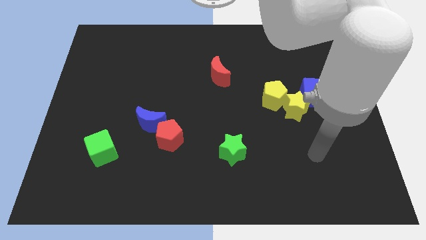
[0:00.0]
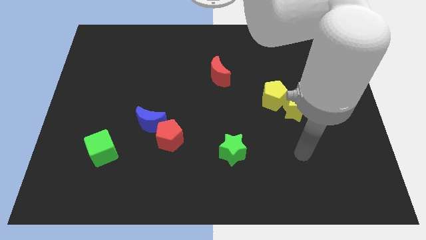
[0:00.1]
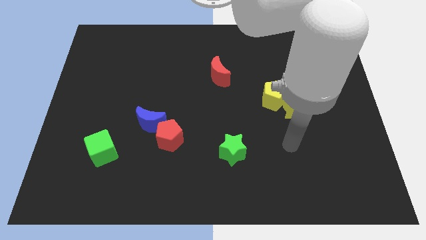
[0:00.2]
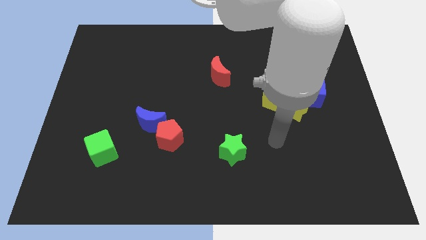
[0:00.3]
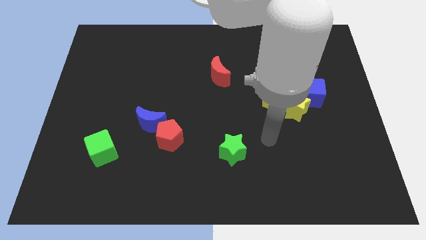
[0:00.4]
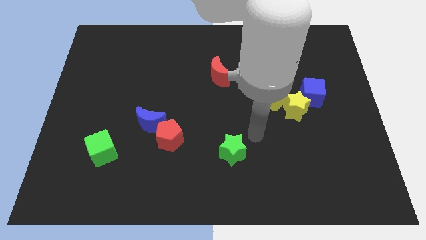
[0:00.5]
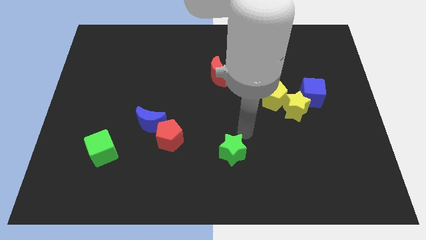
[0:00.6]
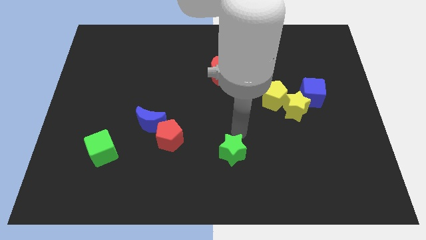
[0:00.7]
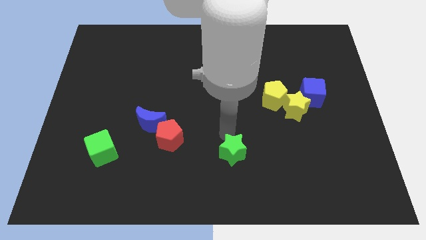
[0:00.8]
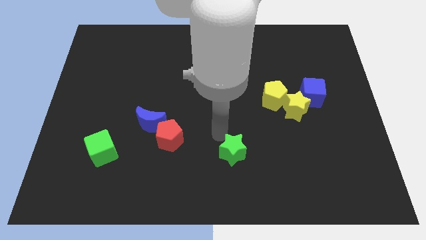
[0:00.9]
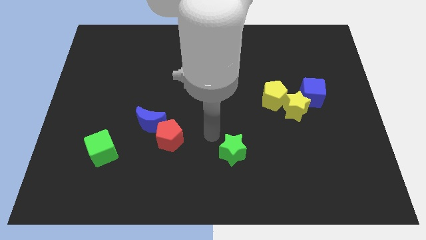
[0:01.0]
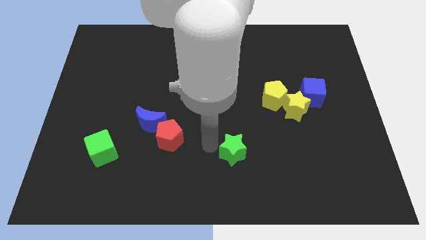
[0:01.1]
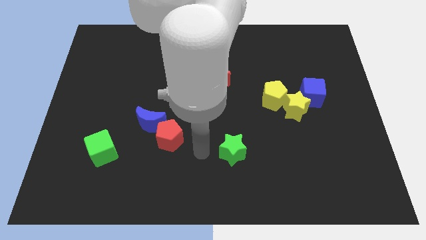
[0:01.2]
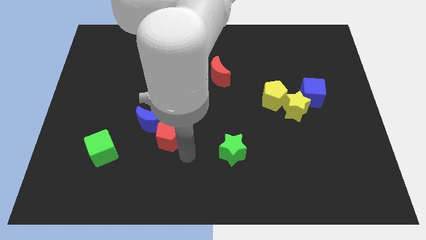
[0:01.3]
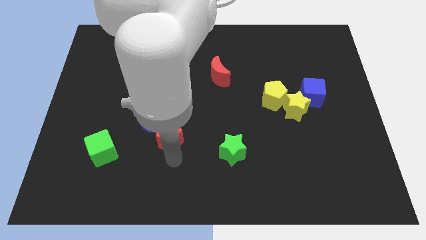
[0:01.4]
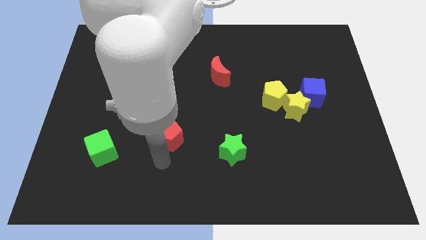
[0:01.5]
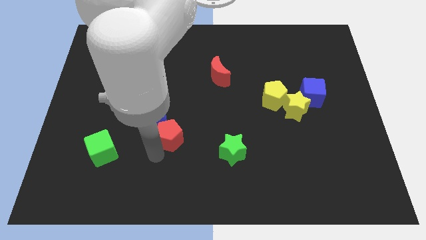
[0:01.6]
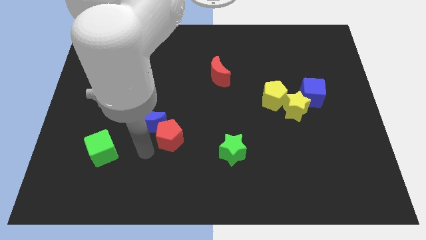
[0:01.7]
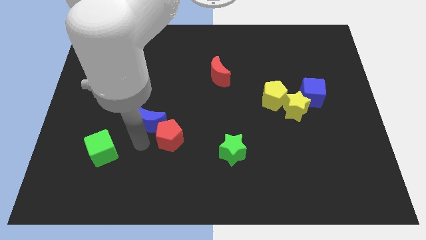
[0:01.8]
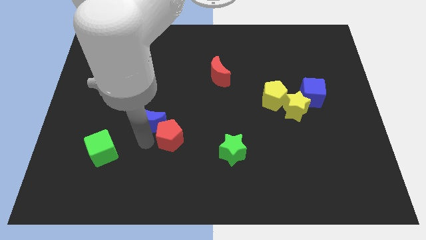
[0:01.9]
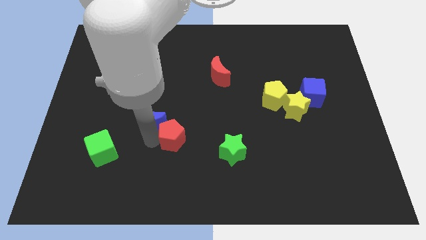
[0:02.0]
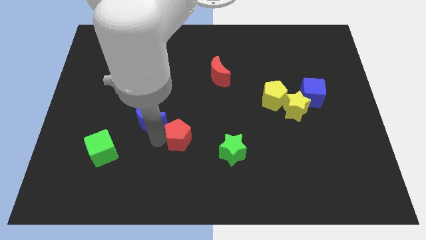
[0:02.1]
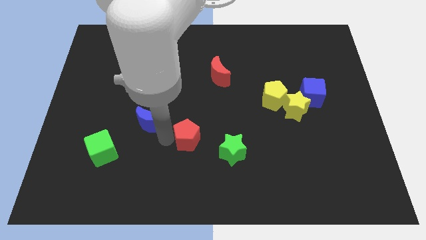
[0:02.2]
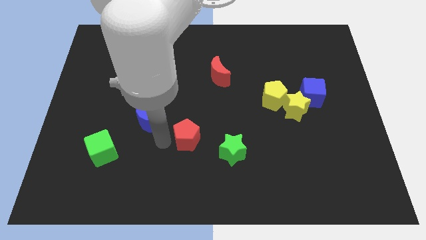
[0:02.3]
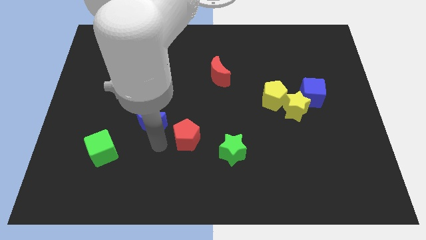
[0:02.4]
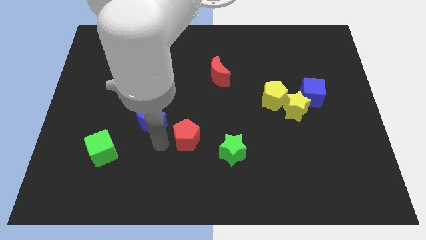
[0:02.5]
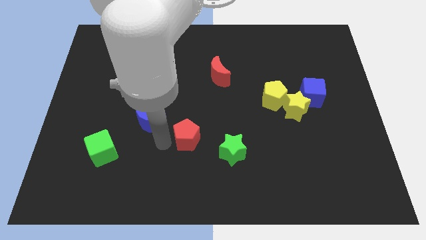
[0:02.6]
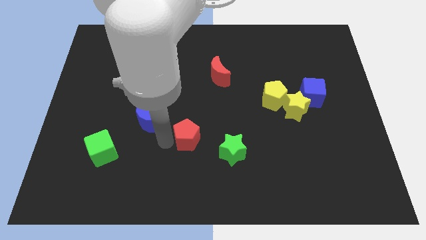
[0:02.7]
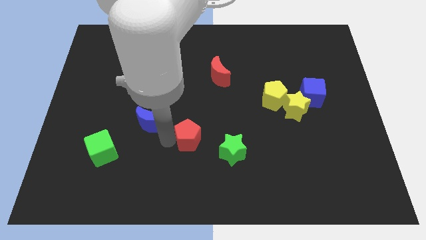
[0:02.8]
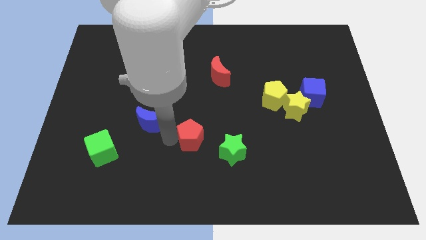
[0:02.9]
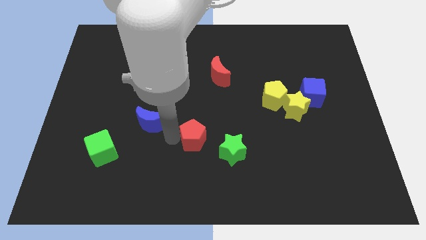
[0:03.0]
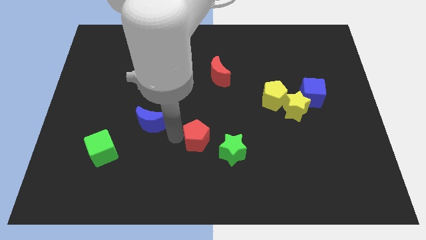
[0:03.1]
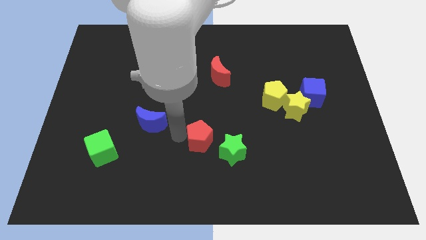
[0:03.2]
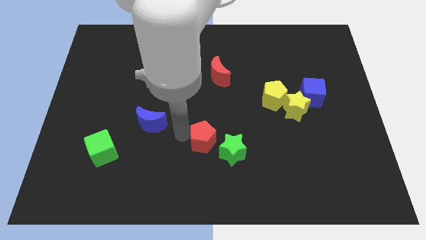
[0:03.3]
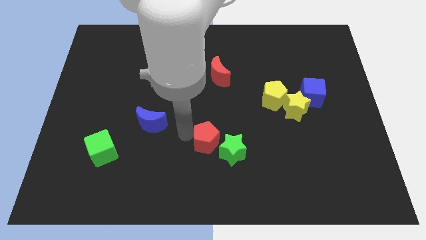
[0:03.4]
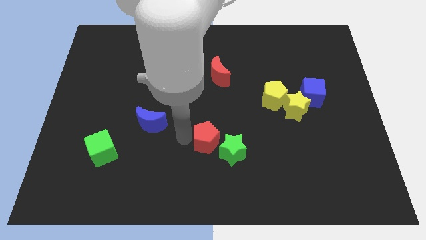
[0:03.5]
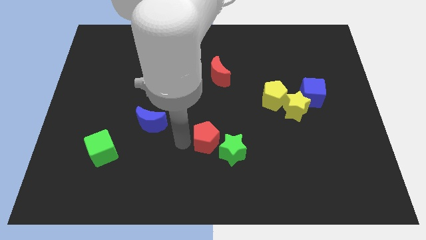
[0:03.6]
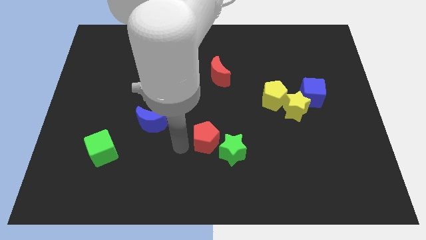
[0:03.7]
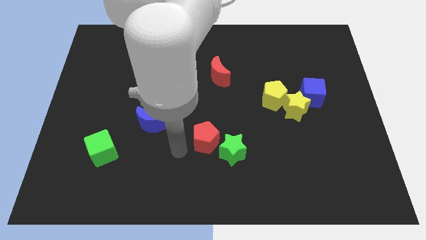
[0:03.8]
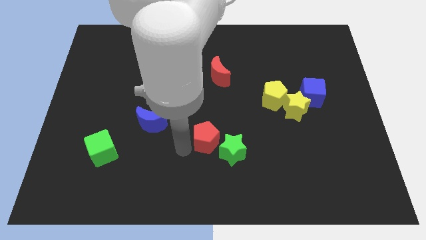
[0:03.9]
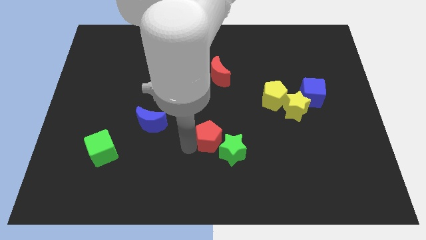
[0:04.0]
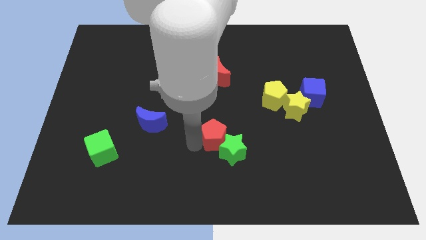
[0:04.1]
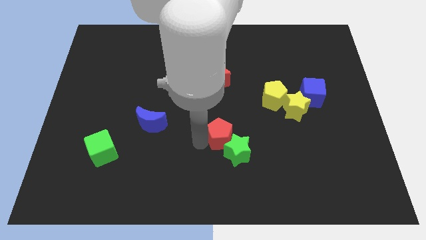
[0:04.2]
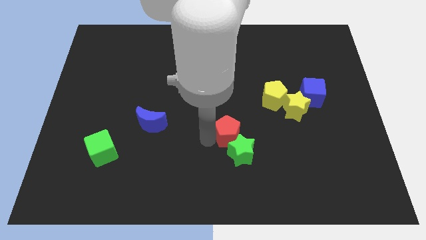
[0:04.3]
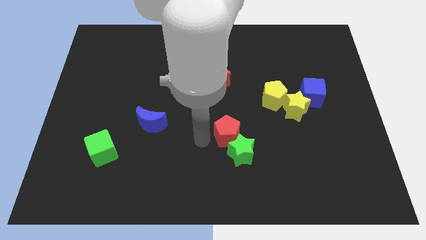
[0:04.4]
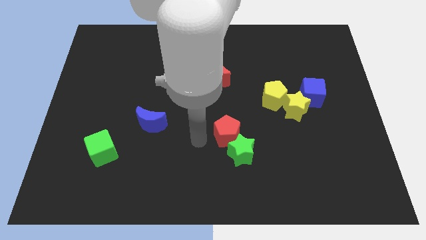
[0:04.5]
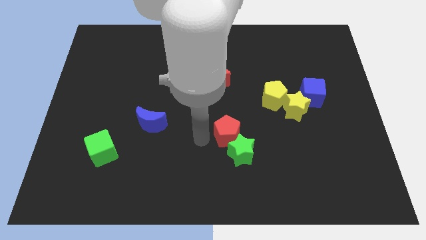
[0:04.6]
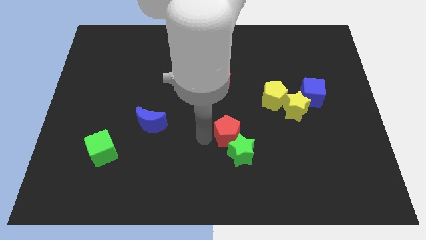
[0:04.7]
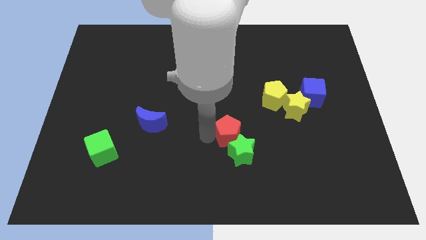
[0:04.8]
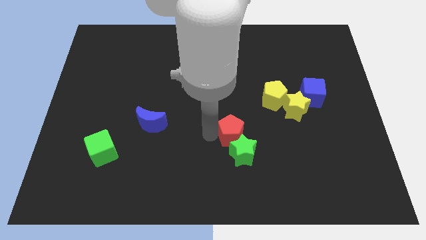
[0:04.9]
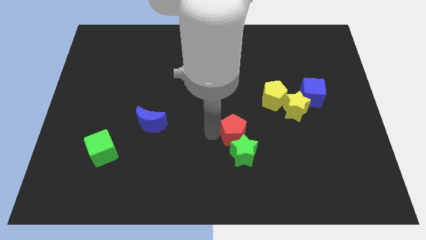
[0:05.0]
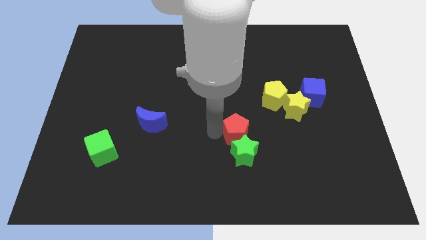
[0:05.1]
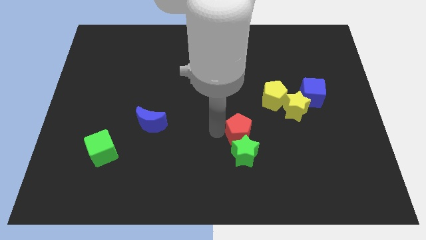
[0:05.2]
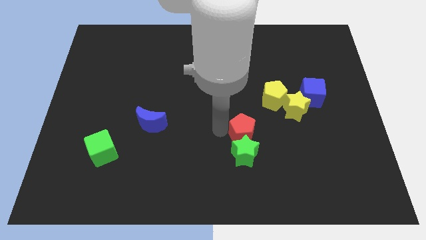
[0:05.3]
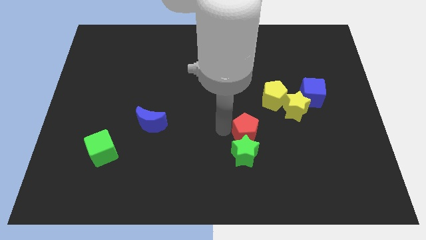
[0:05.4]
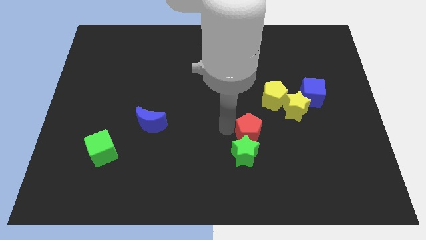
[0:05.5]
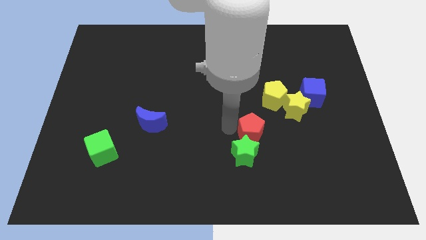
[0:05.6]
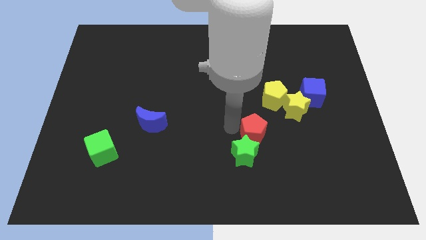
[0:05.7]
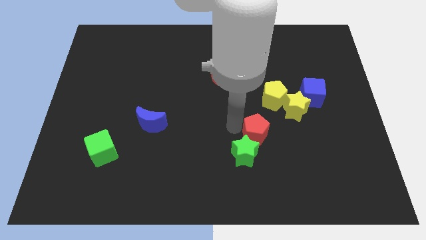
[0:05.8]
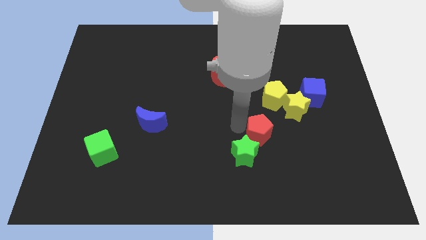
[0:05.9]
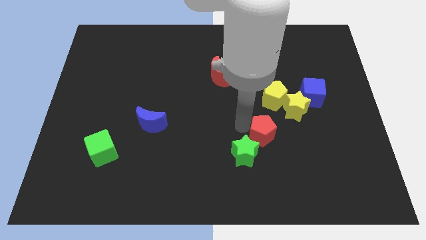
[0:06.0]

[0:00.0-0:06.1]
slide the red pentagon right

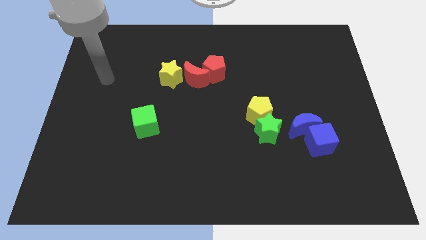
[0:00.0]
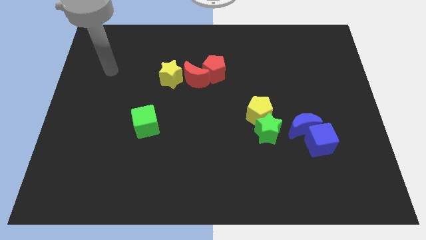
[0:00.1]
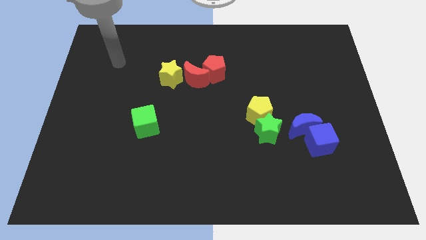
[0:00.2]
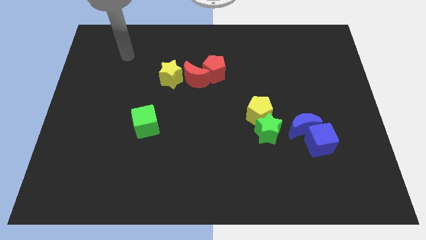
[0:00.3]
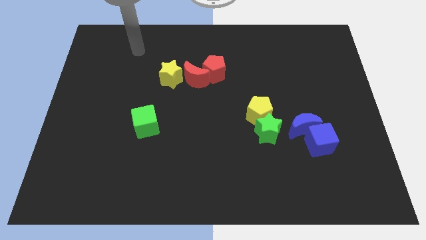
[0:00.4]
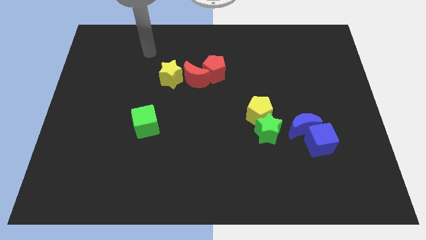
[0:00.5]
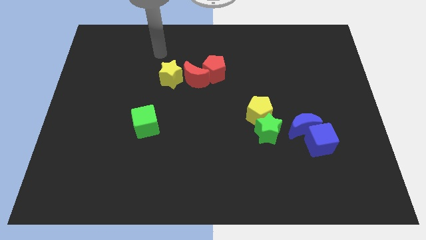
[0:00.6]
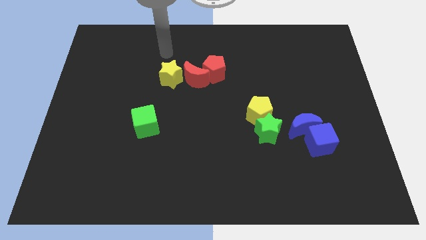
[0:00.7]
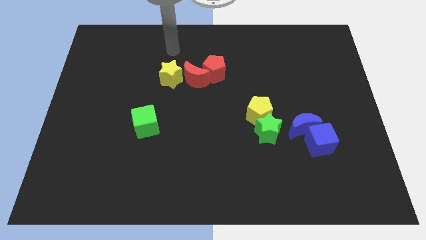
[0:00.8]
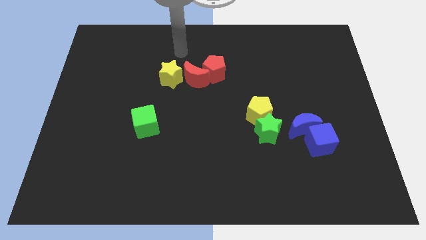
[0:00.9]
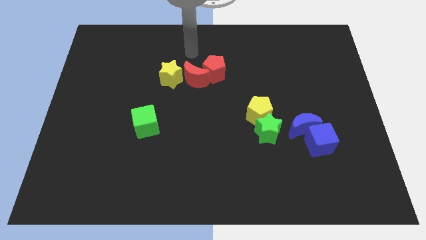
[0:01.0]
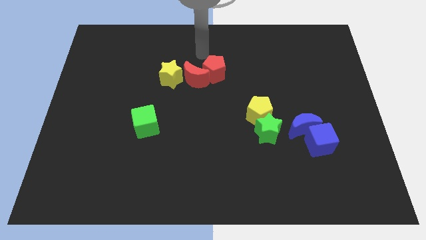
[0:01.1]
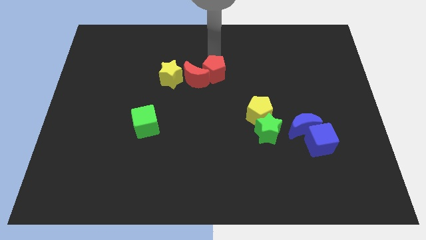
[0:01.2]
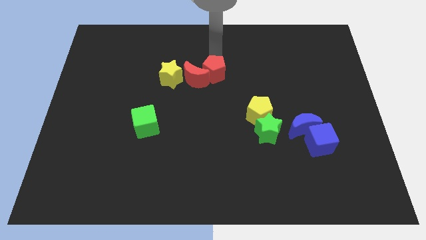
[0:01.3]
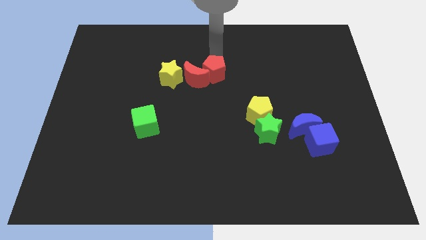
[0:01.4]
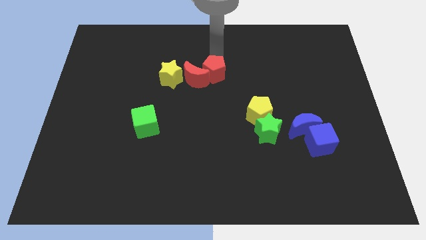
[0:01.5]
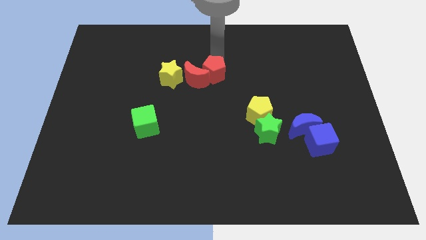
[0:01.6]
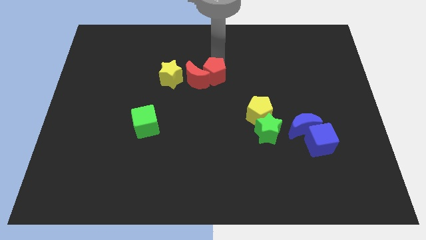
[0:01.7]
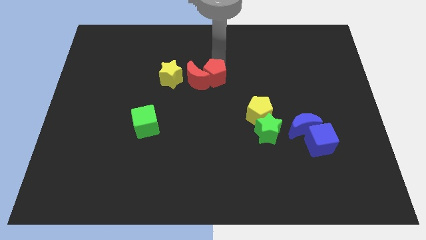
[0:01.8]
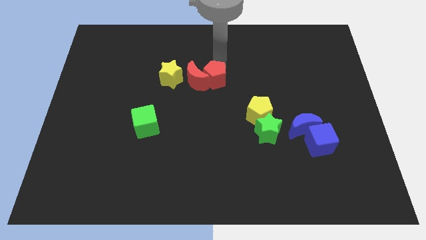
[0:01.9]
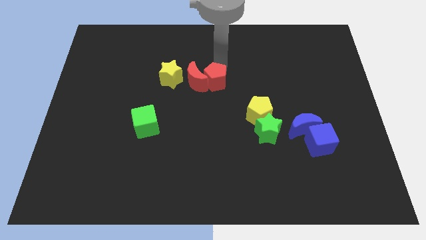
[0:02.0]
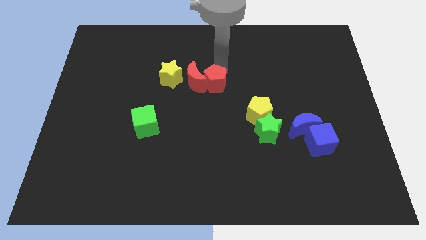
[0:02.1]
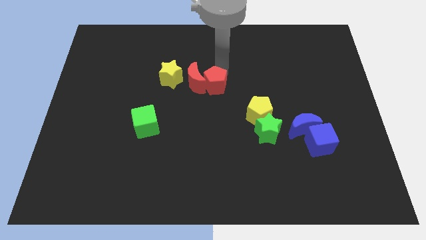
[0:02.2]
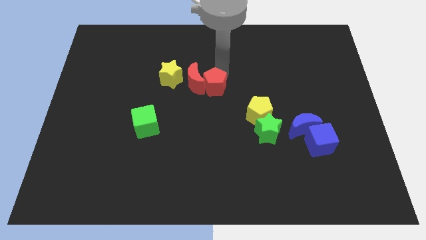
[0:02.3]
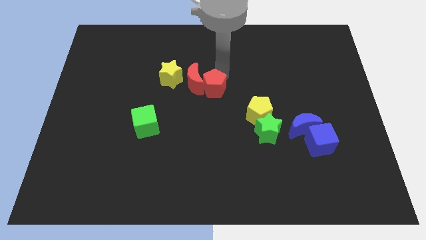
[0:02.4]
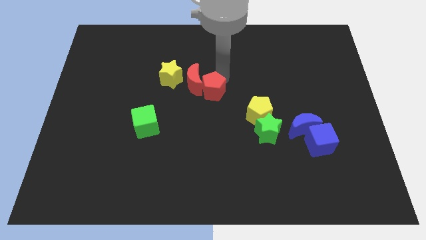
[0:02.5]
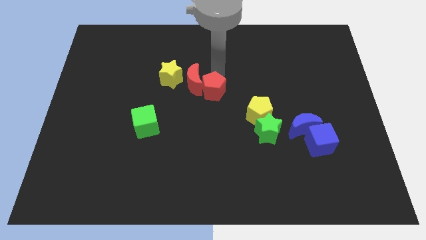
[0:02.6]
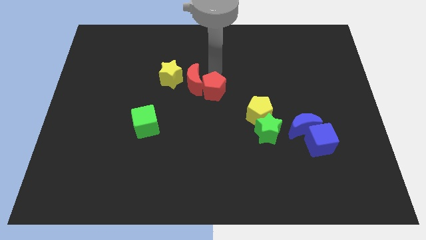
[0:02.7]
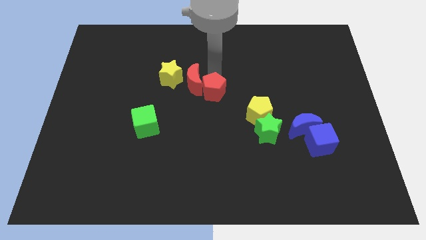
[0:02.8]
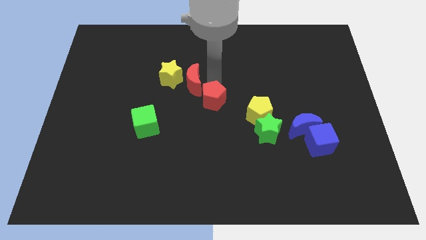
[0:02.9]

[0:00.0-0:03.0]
slide the red pentagon downwards a little bit
